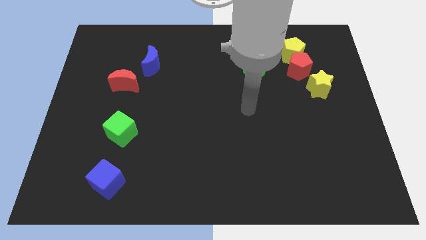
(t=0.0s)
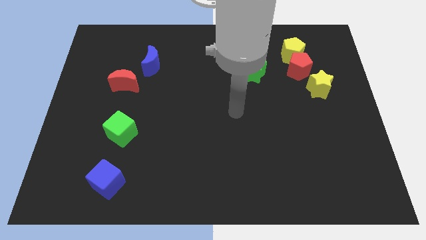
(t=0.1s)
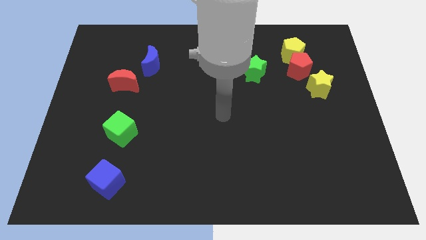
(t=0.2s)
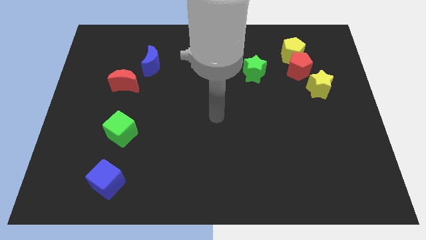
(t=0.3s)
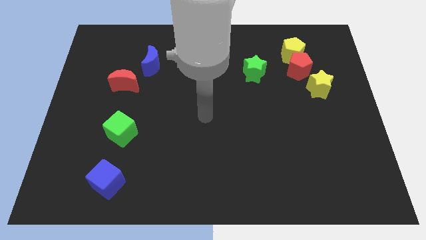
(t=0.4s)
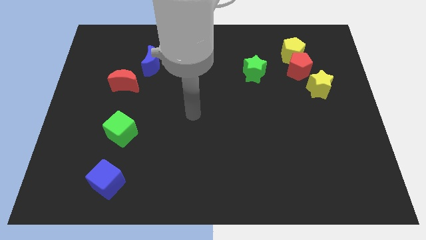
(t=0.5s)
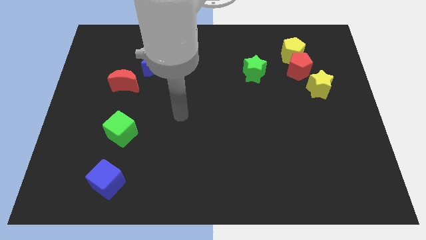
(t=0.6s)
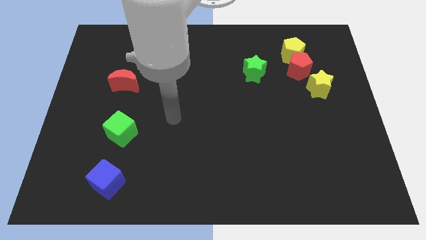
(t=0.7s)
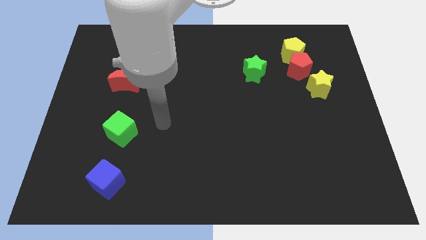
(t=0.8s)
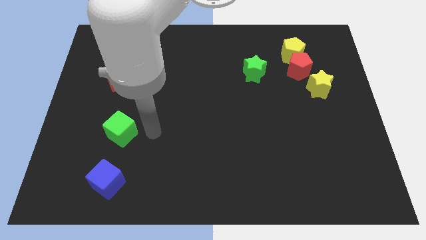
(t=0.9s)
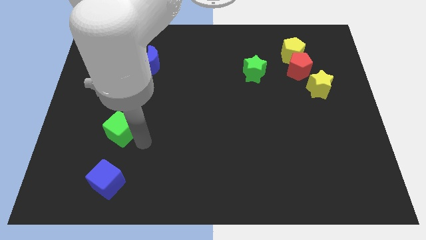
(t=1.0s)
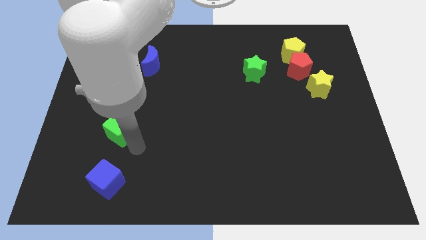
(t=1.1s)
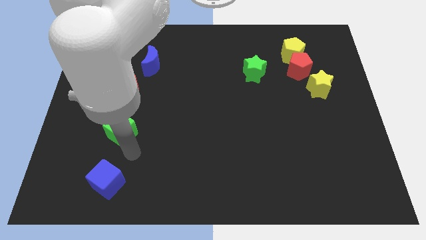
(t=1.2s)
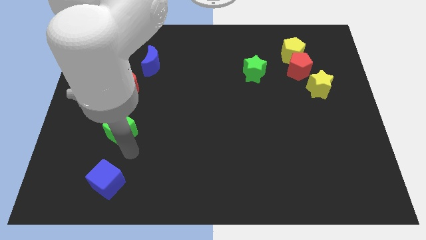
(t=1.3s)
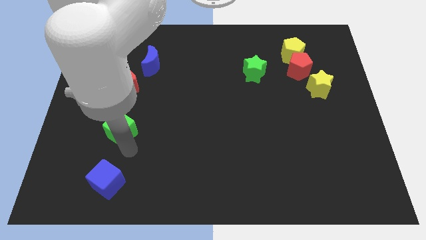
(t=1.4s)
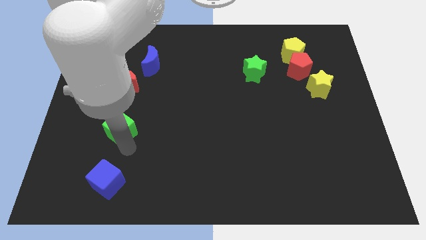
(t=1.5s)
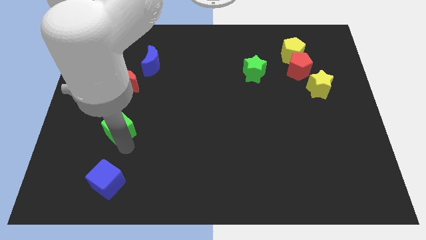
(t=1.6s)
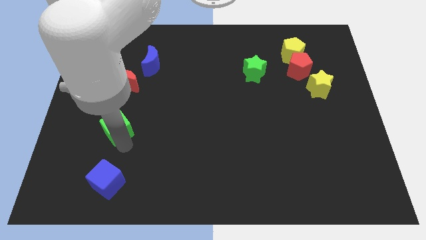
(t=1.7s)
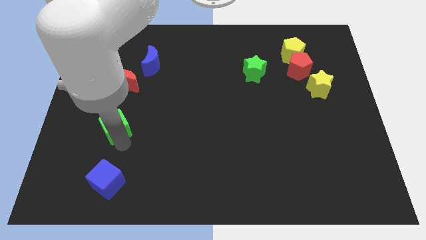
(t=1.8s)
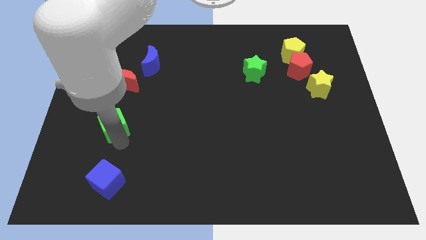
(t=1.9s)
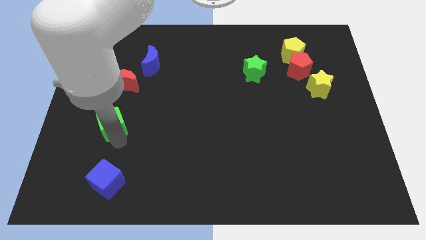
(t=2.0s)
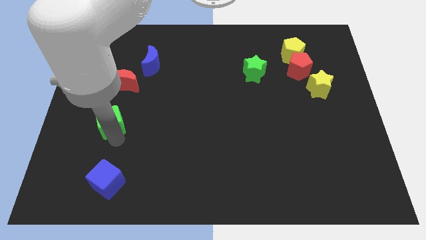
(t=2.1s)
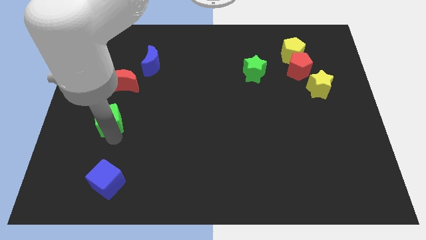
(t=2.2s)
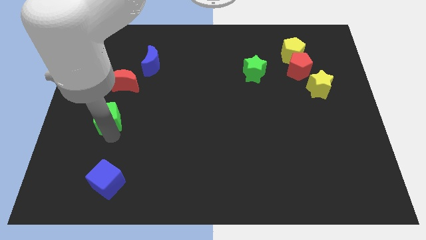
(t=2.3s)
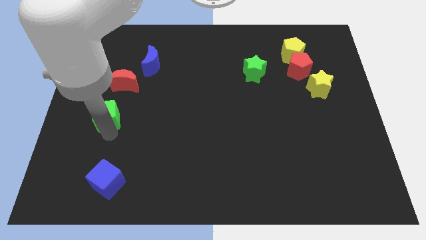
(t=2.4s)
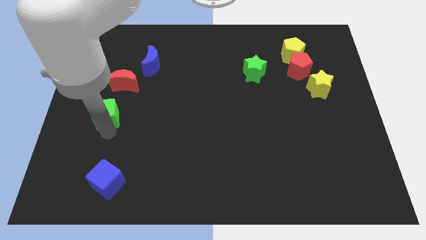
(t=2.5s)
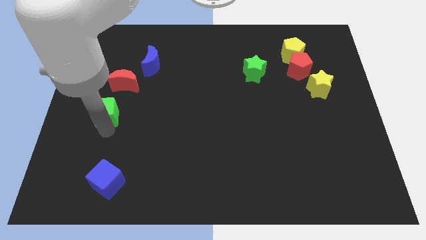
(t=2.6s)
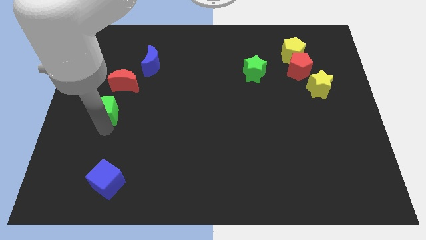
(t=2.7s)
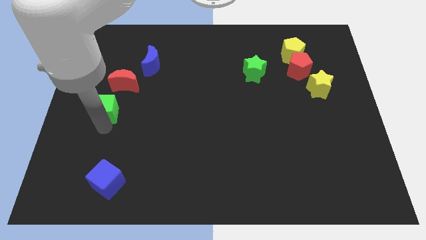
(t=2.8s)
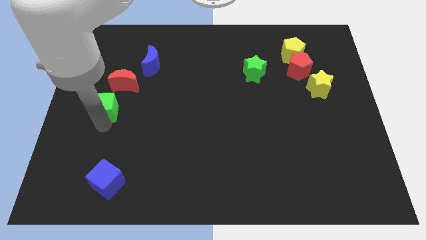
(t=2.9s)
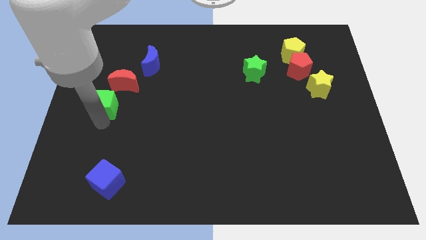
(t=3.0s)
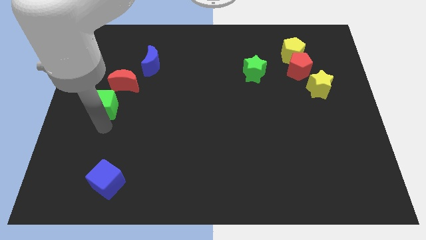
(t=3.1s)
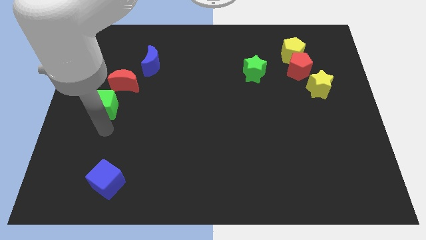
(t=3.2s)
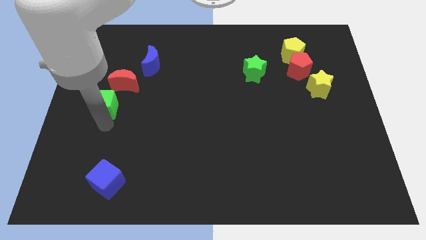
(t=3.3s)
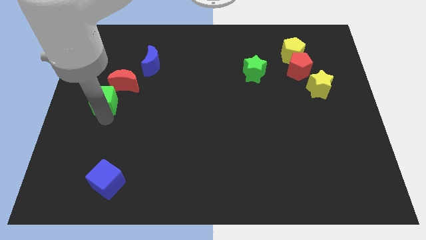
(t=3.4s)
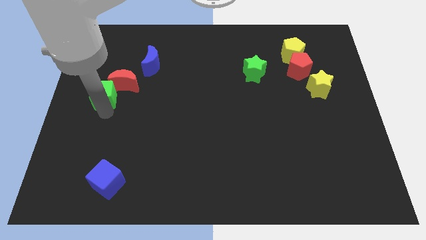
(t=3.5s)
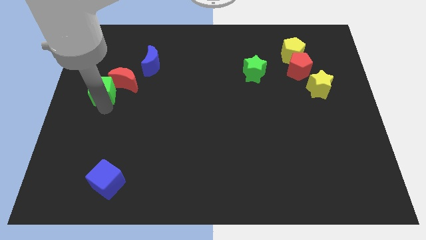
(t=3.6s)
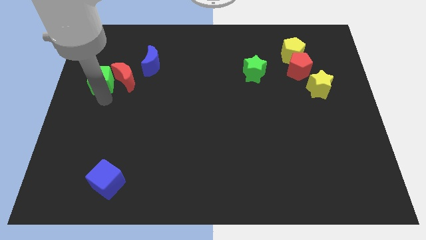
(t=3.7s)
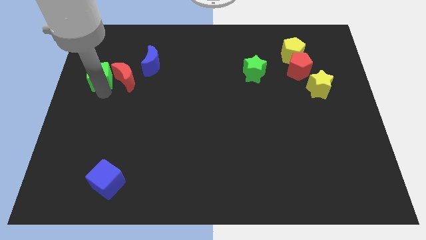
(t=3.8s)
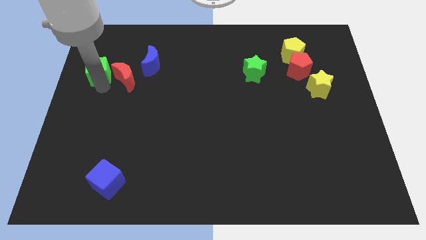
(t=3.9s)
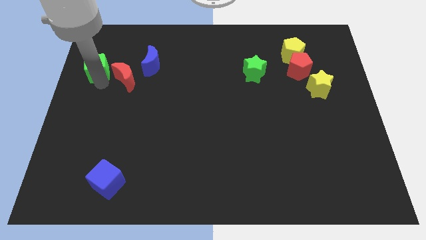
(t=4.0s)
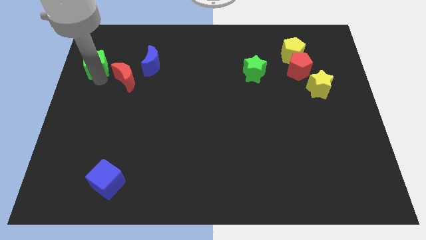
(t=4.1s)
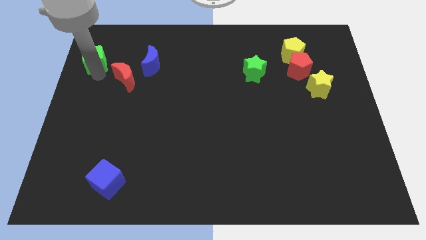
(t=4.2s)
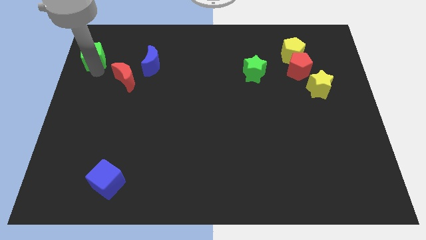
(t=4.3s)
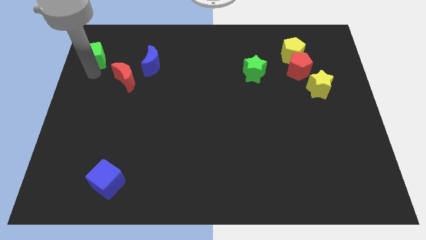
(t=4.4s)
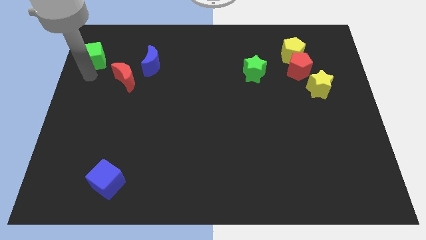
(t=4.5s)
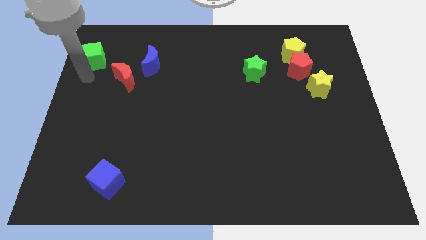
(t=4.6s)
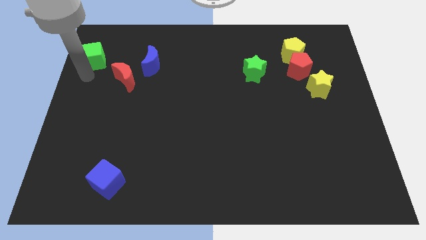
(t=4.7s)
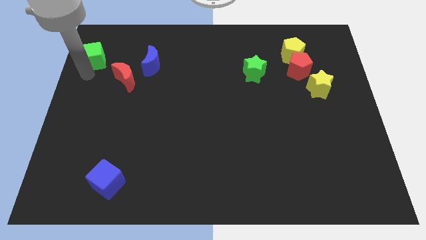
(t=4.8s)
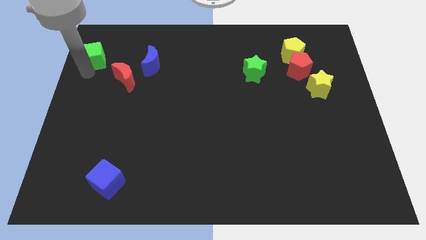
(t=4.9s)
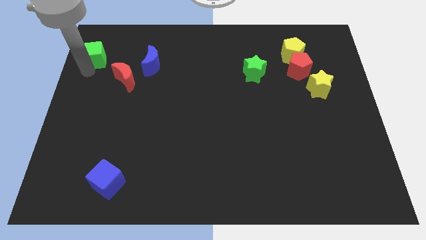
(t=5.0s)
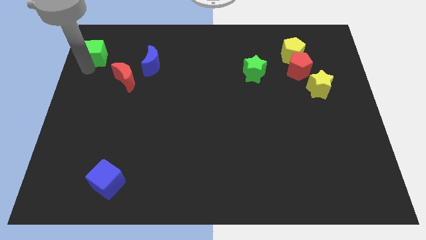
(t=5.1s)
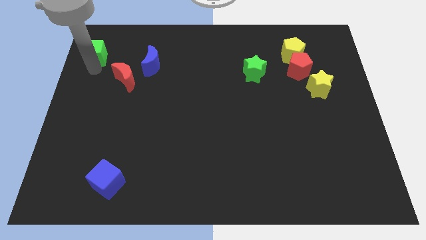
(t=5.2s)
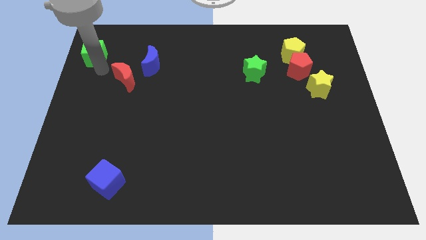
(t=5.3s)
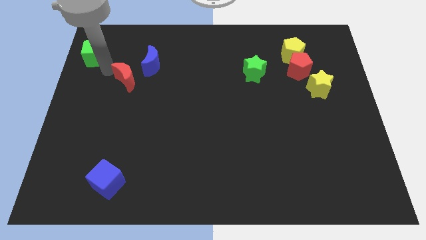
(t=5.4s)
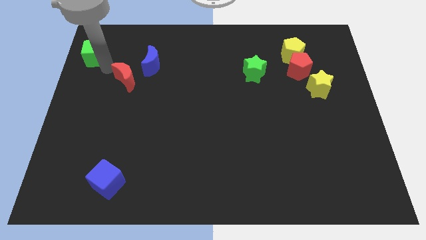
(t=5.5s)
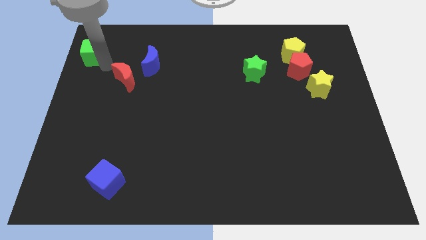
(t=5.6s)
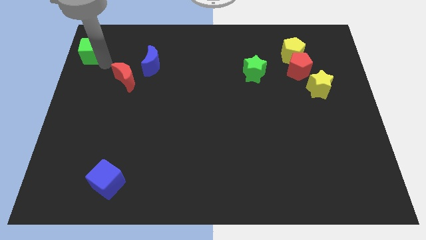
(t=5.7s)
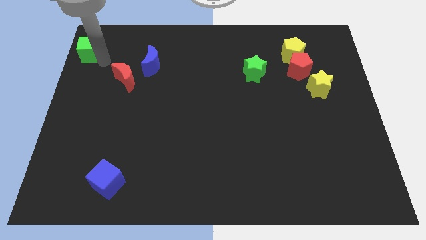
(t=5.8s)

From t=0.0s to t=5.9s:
slide the green cube to the upper left corner

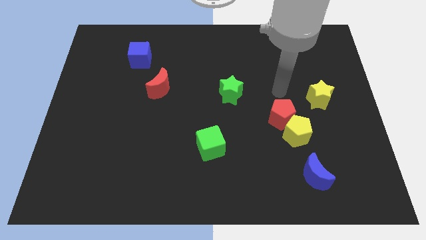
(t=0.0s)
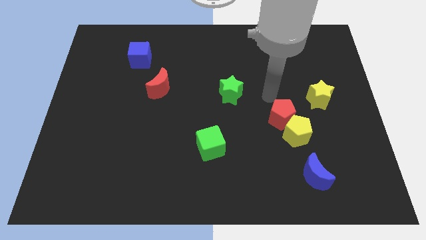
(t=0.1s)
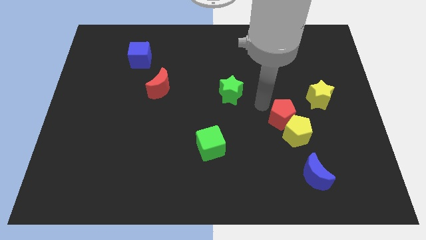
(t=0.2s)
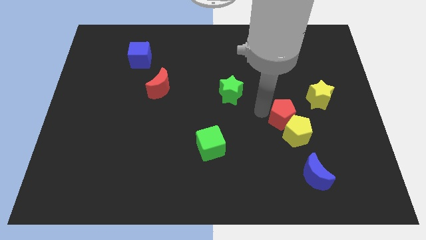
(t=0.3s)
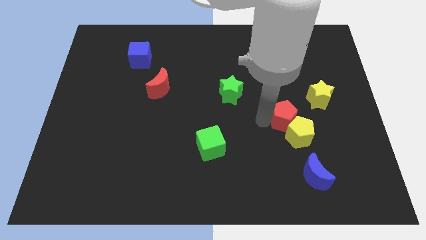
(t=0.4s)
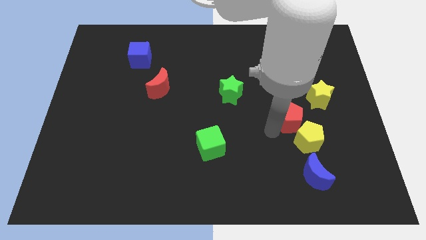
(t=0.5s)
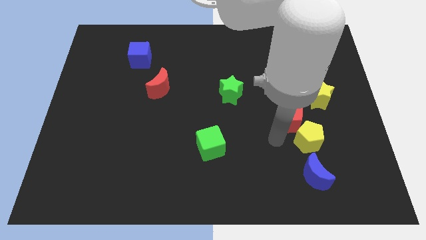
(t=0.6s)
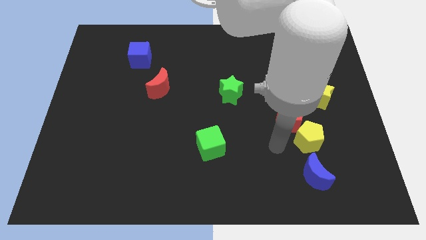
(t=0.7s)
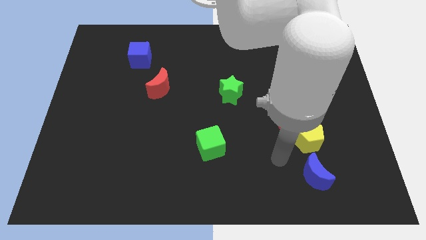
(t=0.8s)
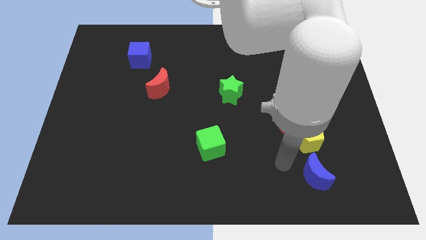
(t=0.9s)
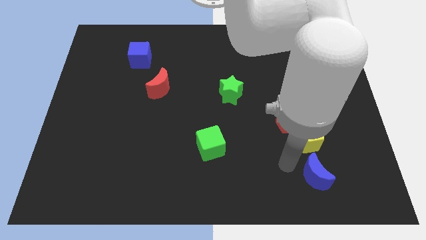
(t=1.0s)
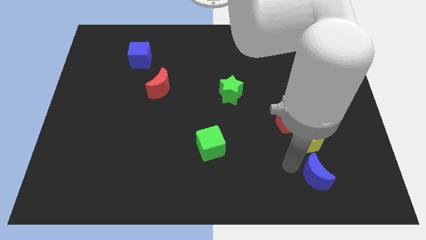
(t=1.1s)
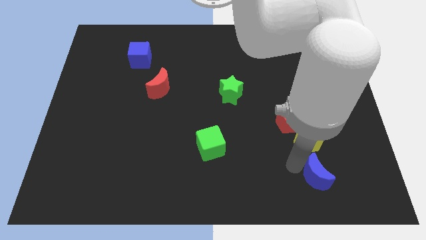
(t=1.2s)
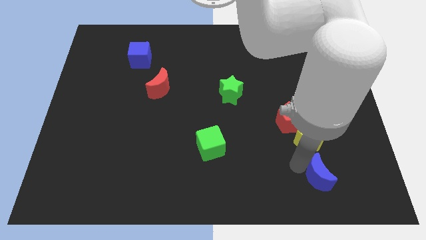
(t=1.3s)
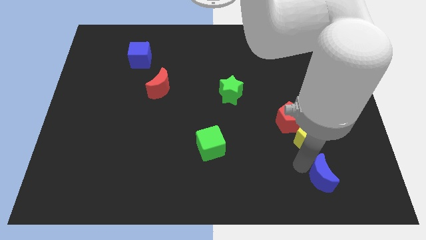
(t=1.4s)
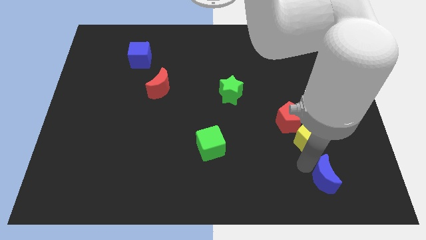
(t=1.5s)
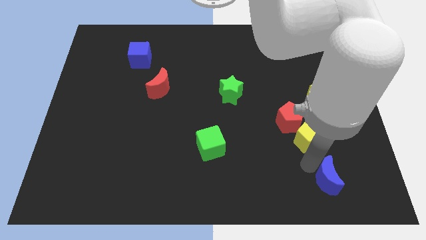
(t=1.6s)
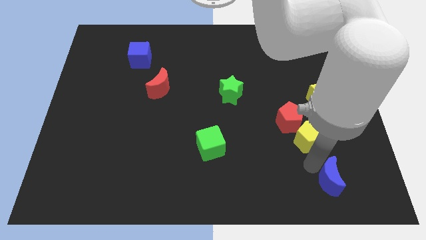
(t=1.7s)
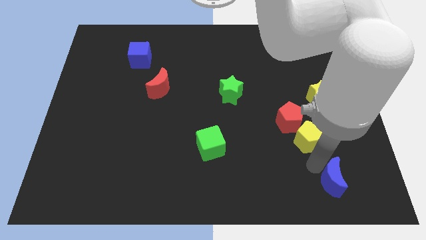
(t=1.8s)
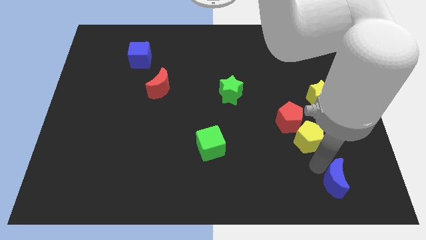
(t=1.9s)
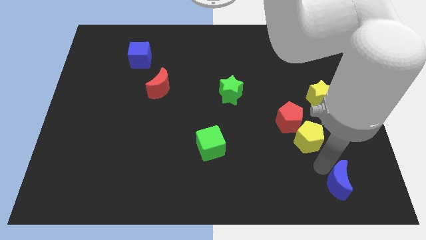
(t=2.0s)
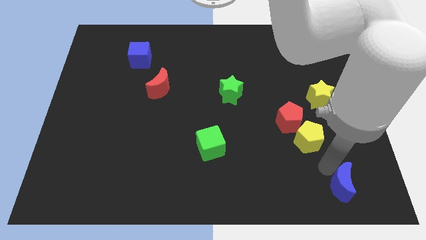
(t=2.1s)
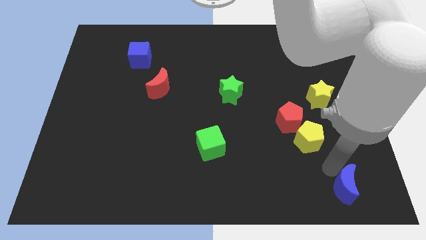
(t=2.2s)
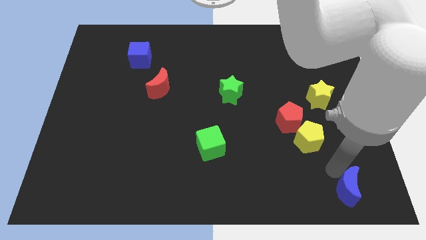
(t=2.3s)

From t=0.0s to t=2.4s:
move the blue moon to the bottom right
